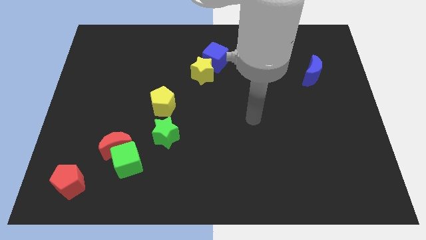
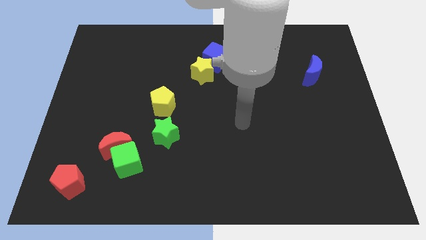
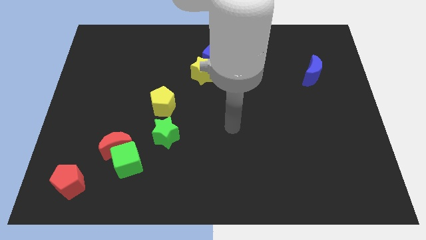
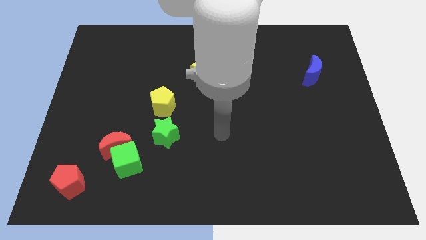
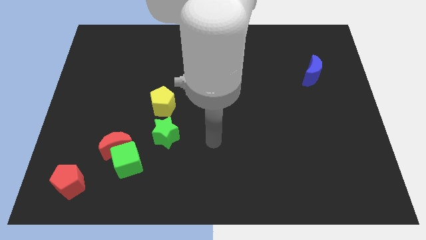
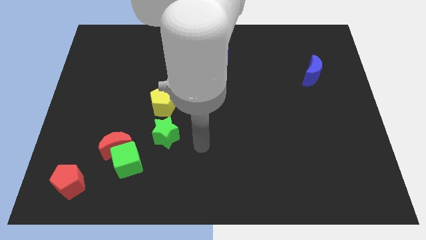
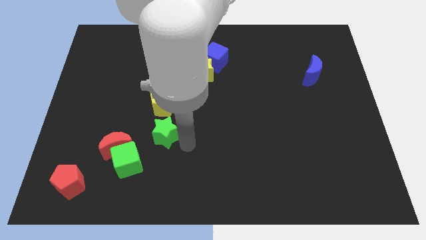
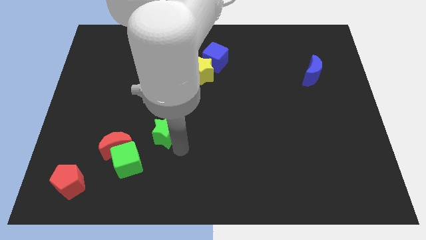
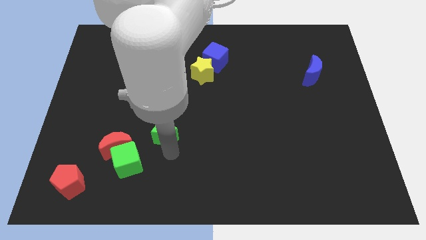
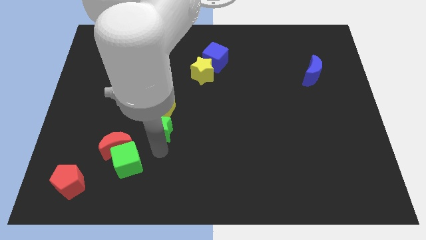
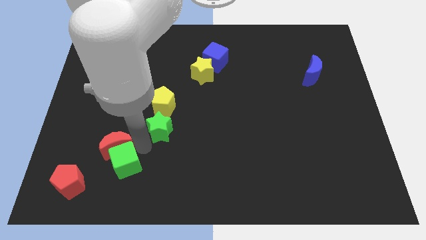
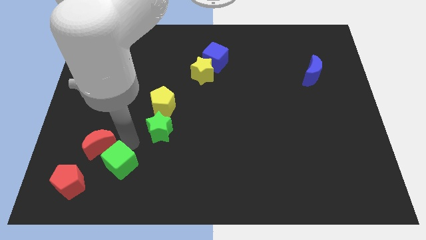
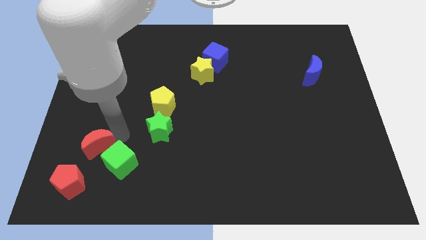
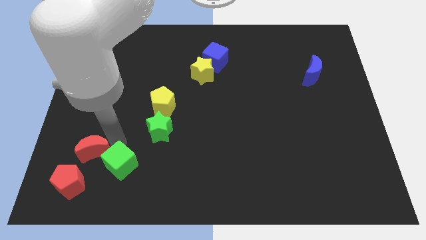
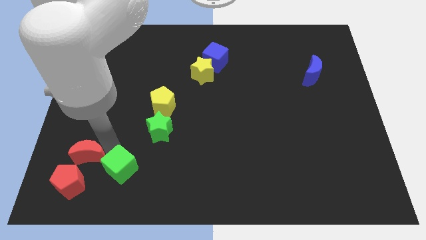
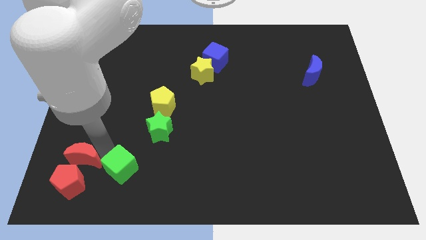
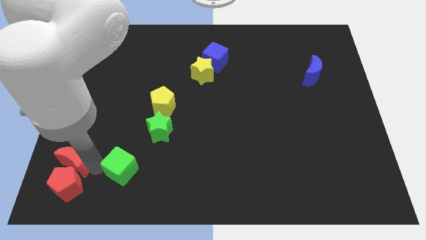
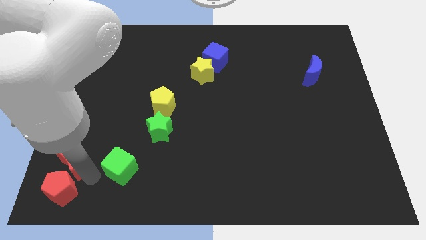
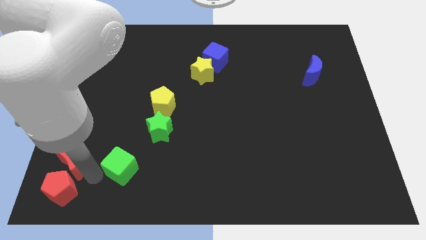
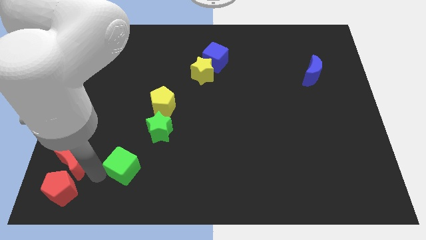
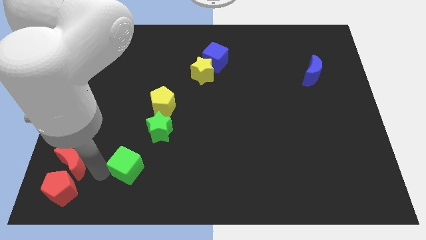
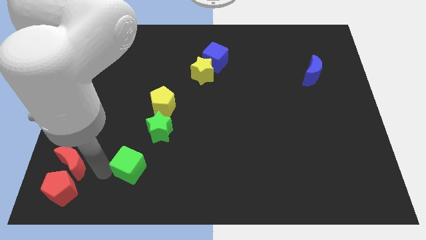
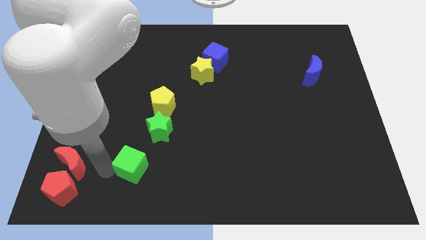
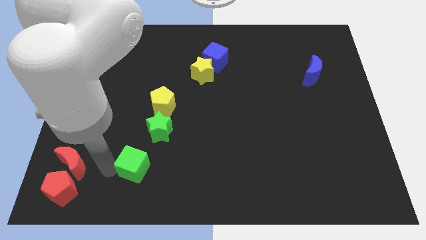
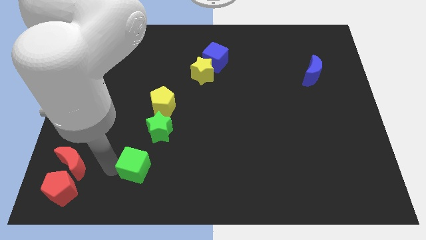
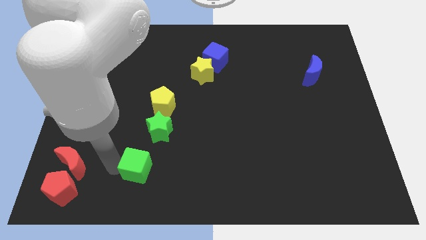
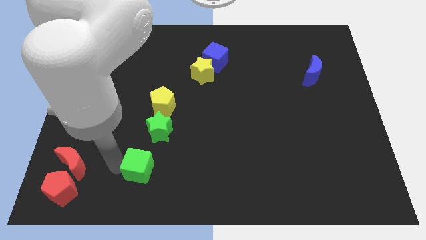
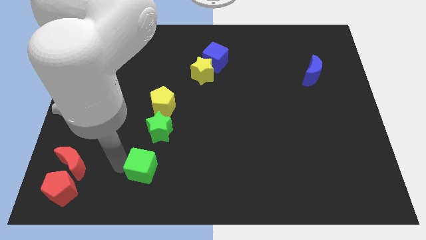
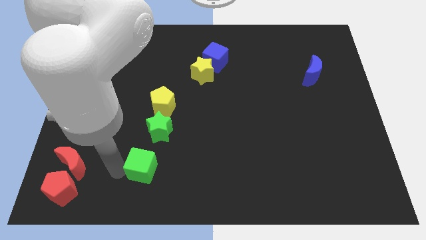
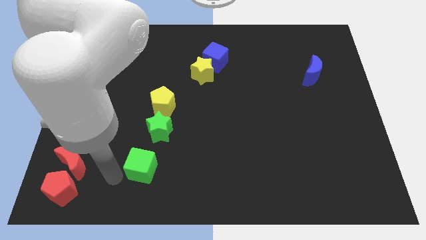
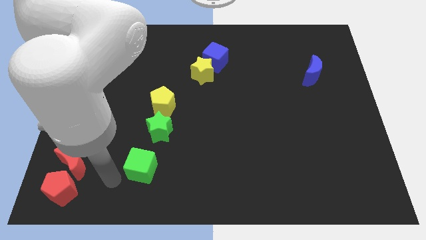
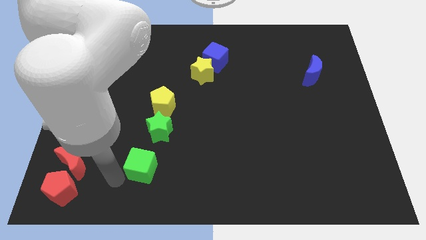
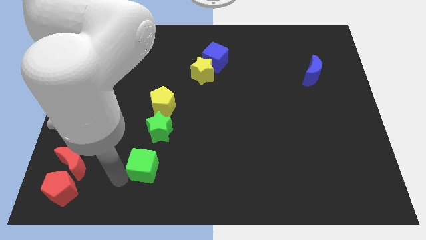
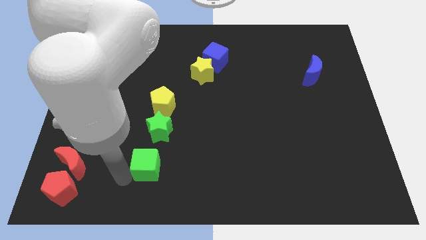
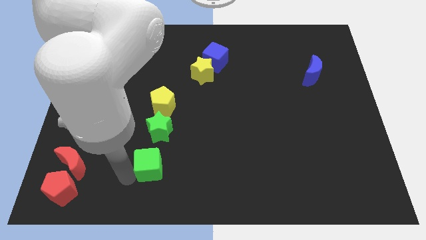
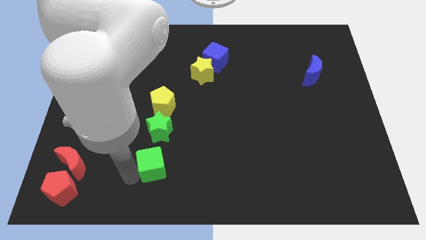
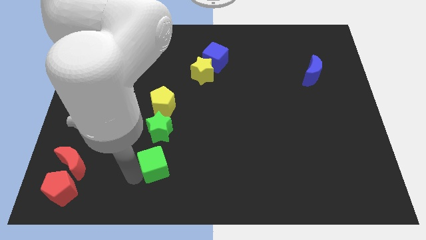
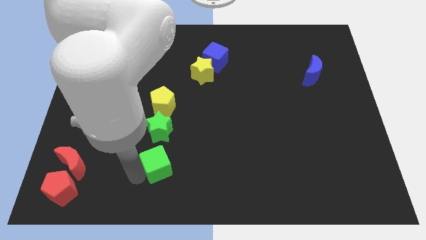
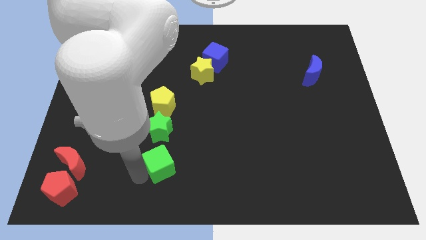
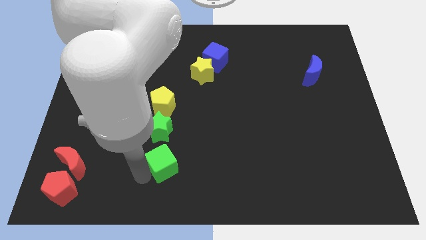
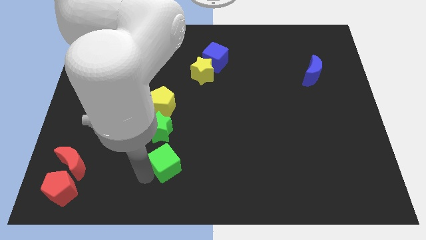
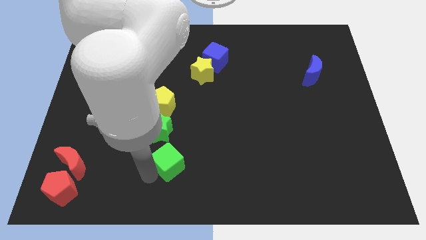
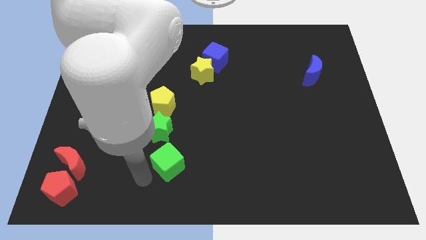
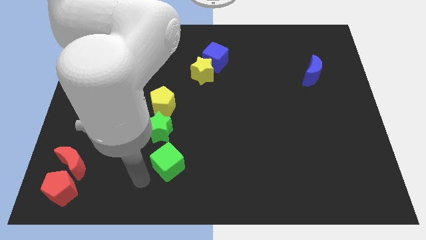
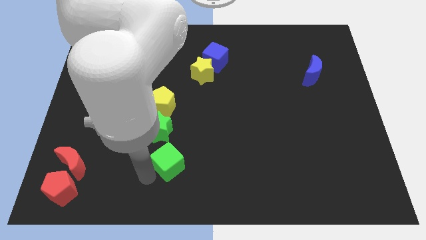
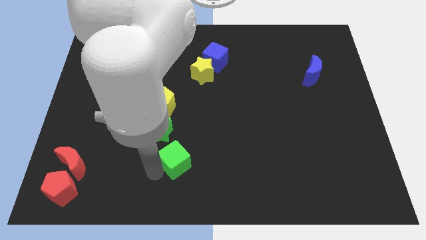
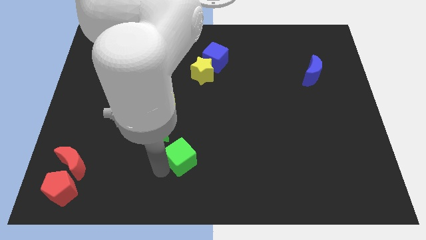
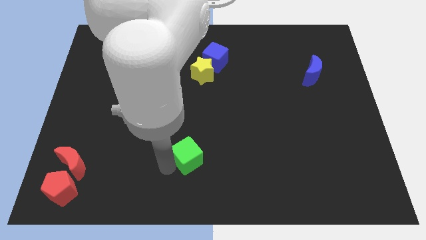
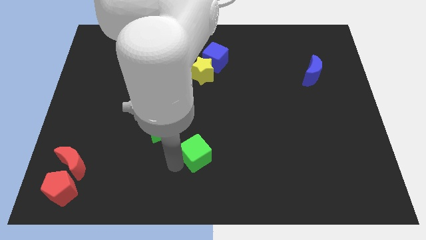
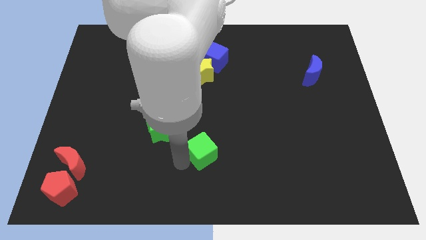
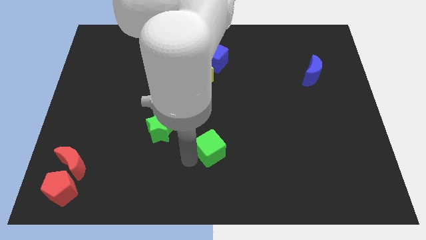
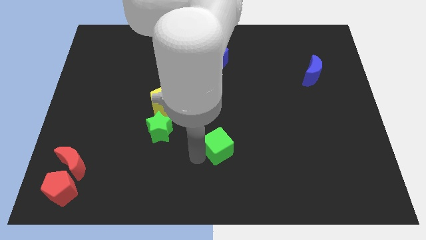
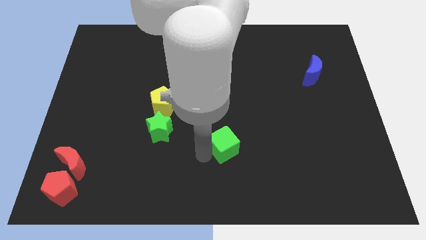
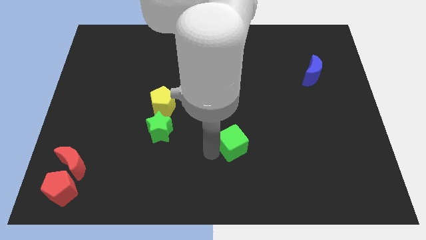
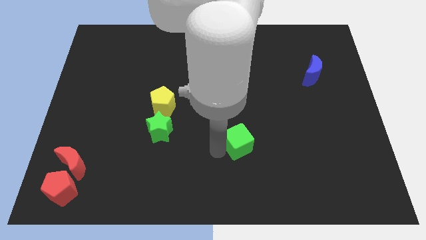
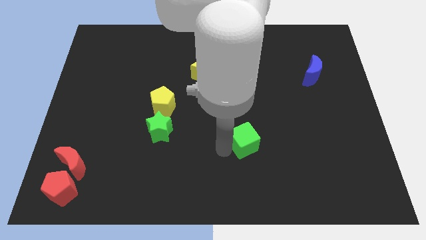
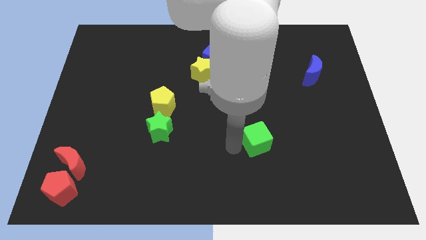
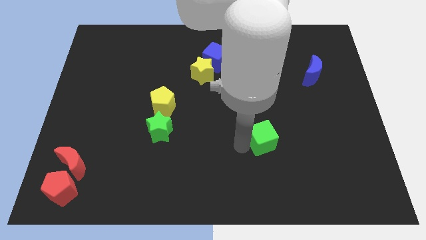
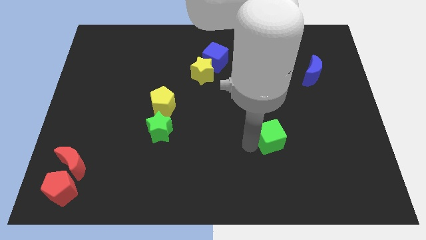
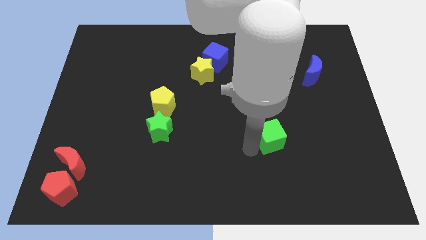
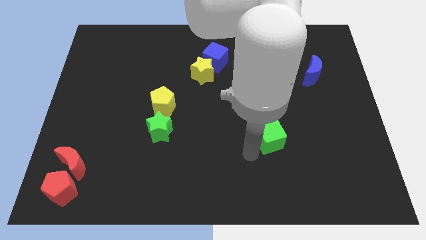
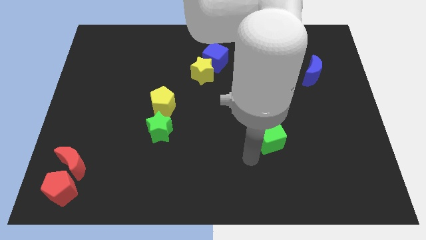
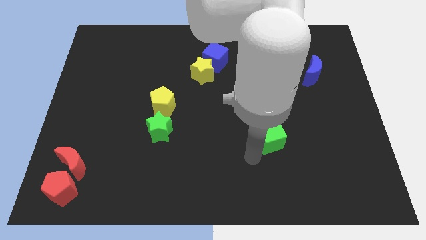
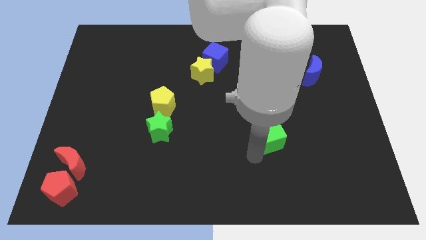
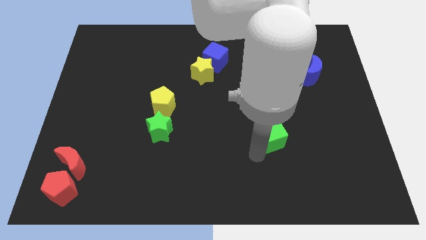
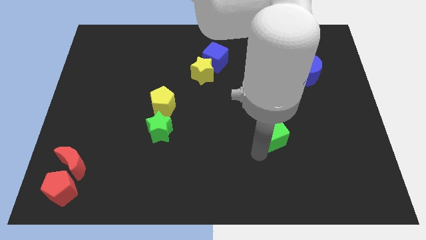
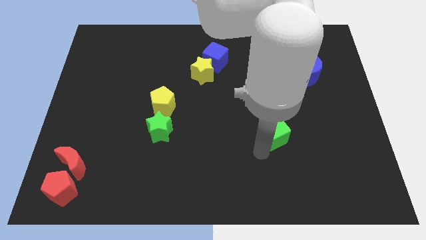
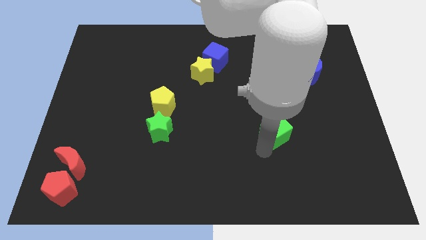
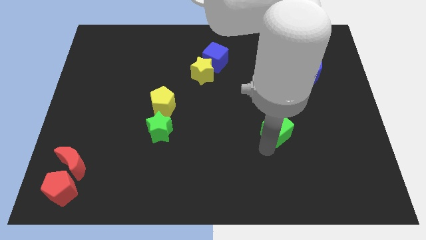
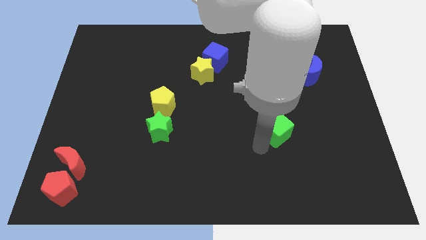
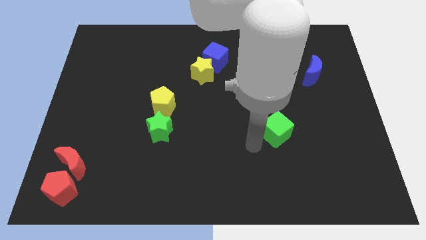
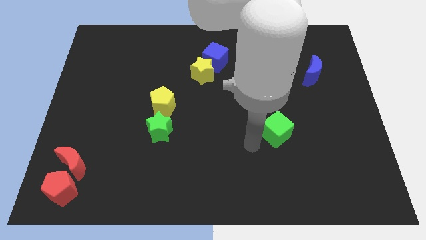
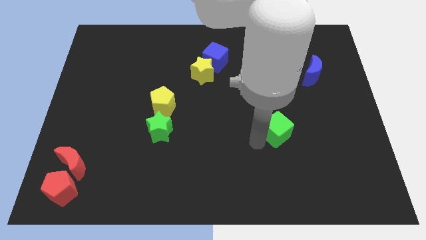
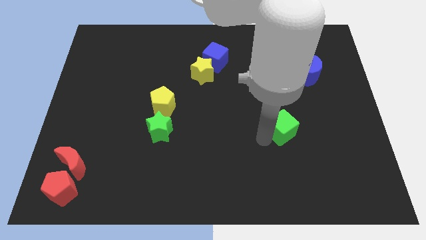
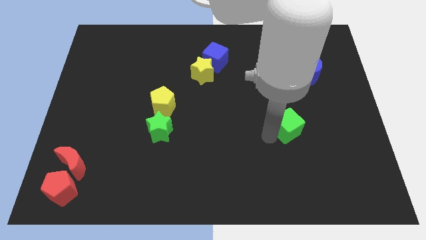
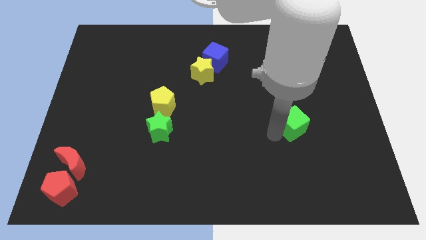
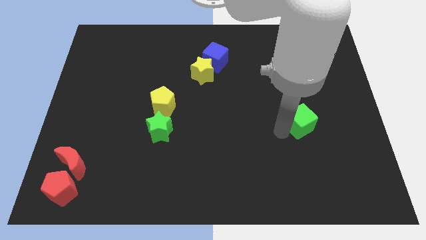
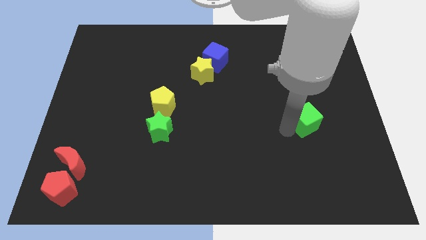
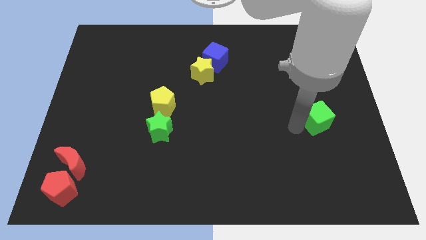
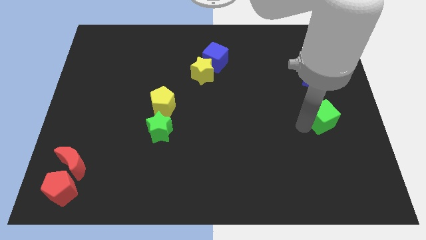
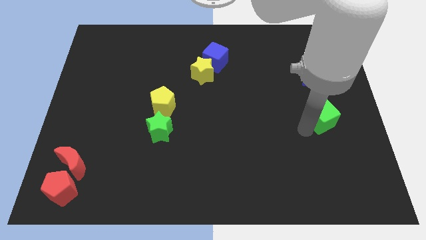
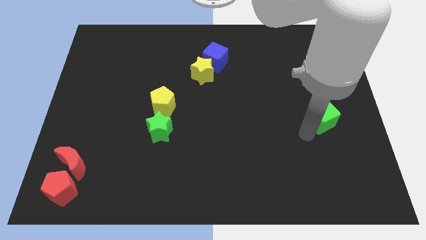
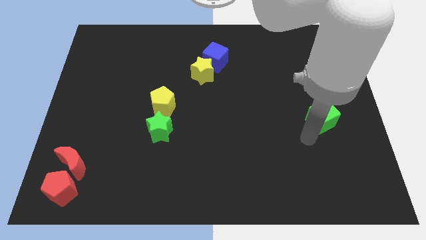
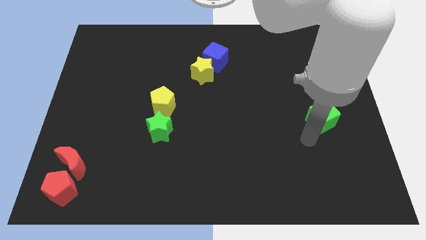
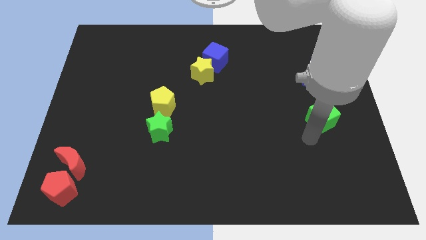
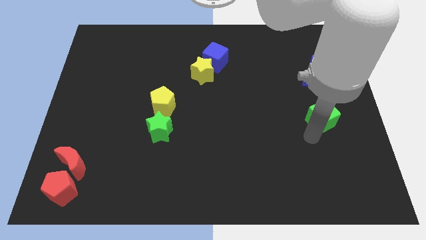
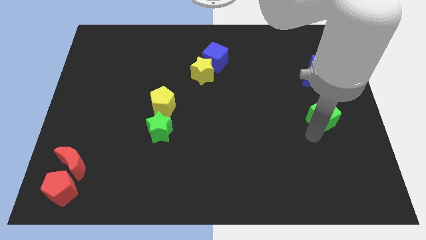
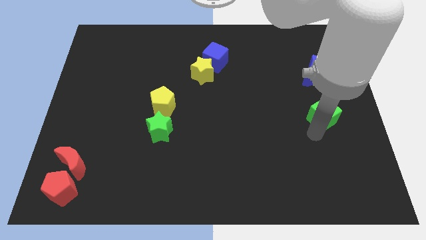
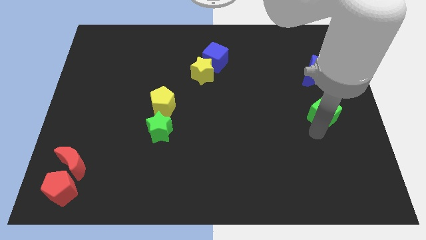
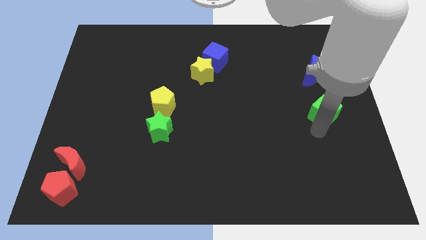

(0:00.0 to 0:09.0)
move the green cube to the right side of the board
